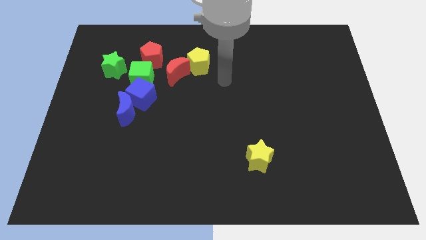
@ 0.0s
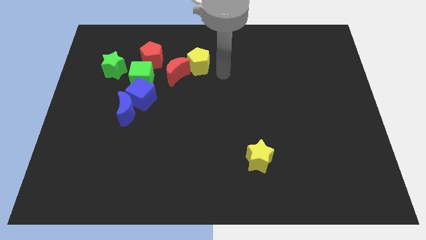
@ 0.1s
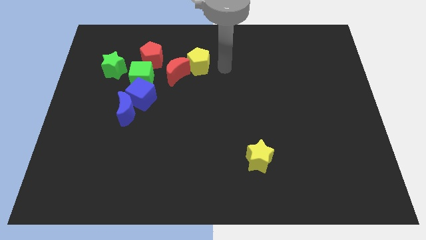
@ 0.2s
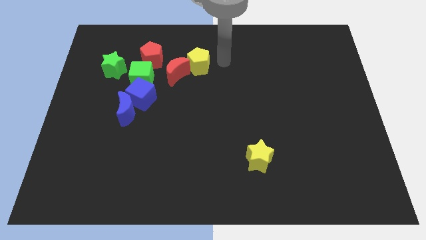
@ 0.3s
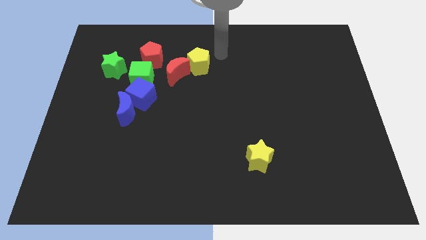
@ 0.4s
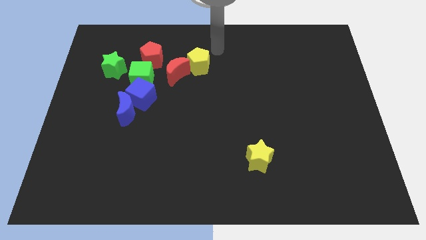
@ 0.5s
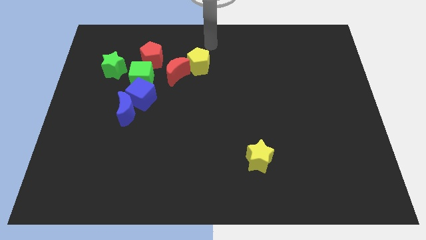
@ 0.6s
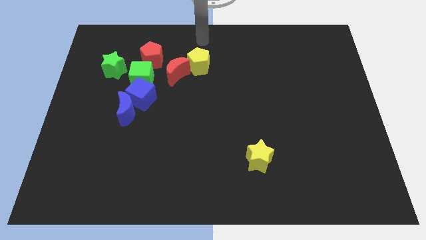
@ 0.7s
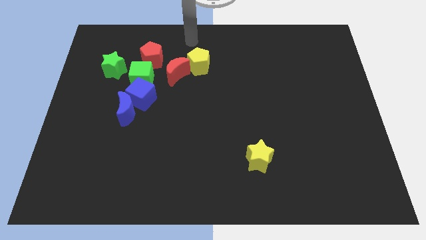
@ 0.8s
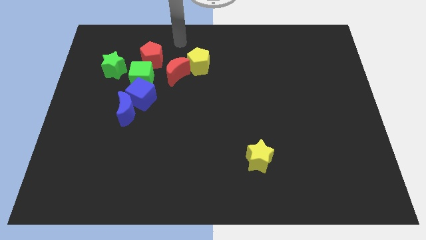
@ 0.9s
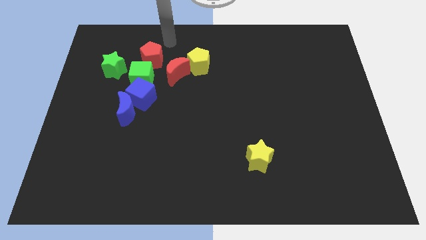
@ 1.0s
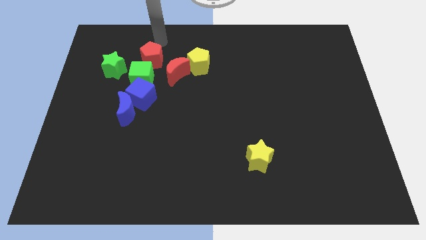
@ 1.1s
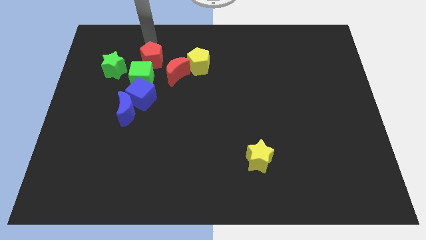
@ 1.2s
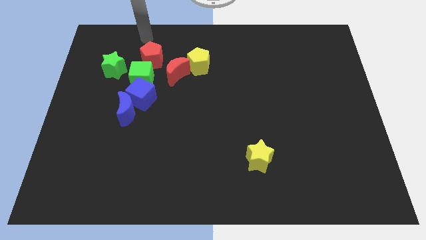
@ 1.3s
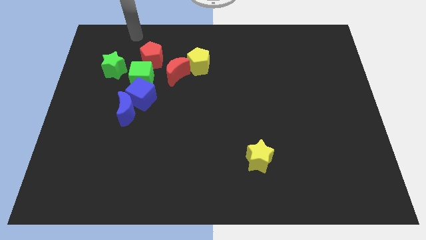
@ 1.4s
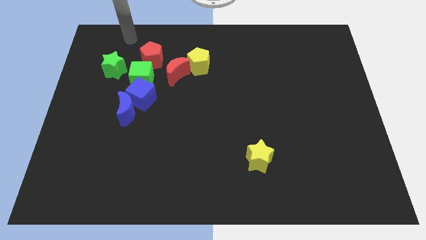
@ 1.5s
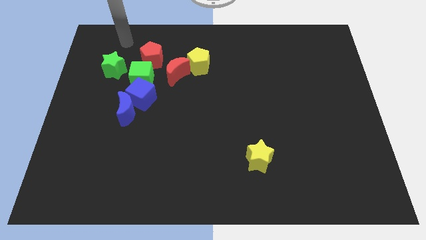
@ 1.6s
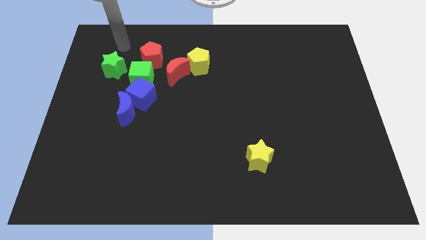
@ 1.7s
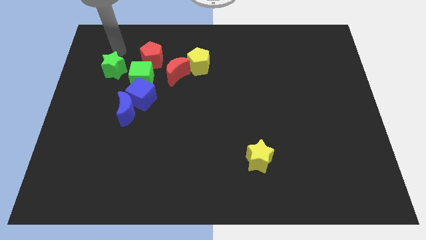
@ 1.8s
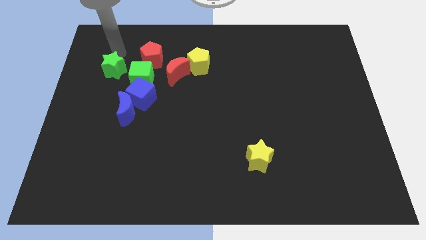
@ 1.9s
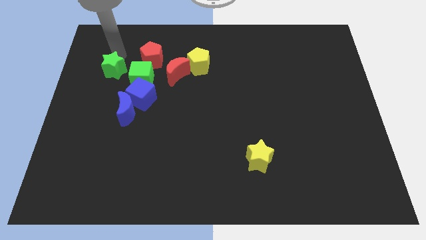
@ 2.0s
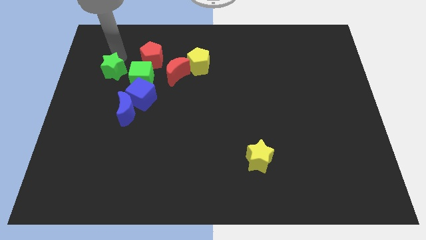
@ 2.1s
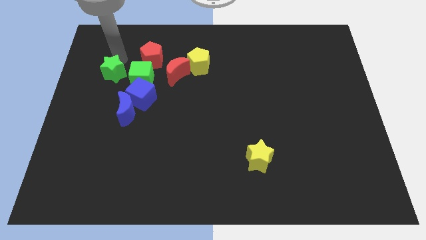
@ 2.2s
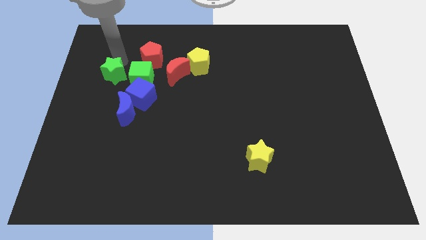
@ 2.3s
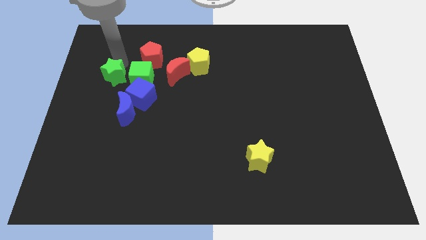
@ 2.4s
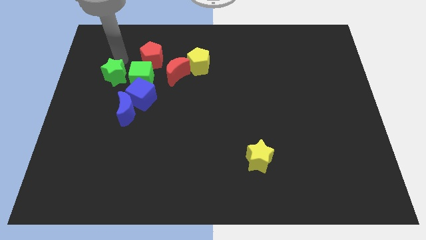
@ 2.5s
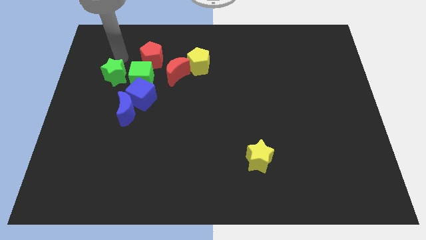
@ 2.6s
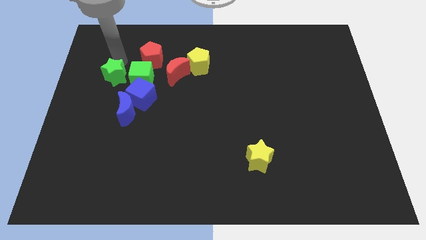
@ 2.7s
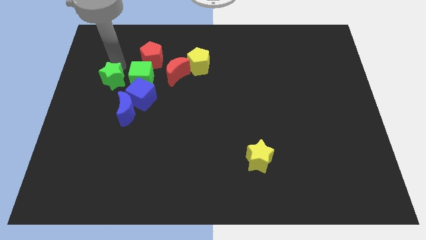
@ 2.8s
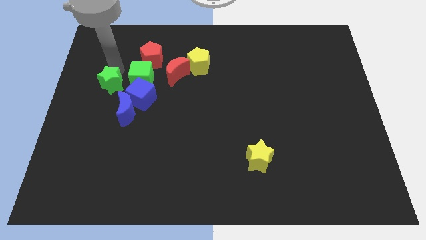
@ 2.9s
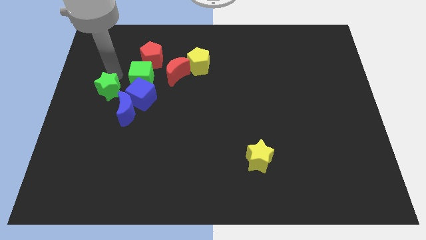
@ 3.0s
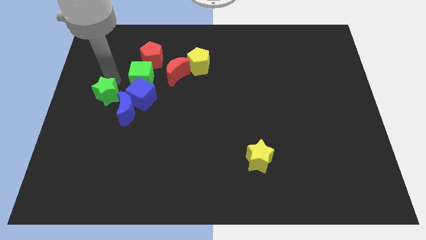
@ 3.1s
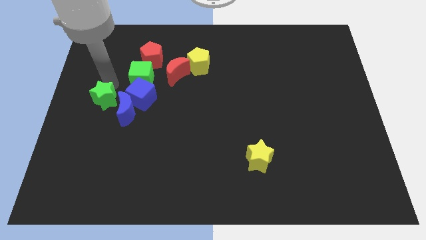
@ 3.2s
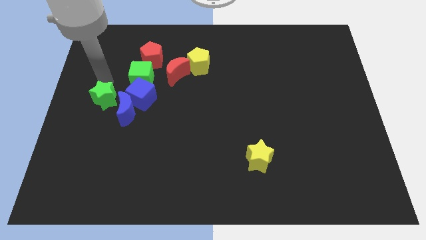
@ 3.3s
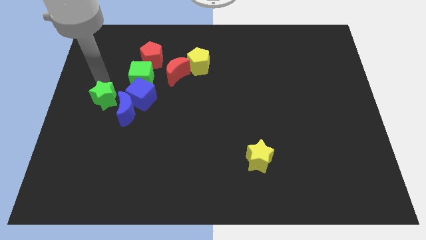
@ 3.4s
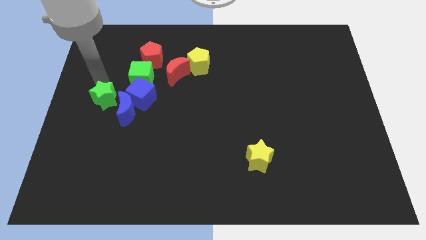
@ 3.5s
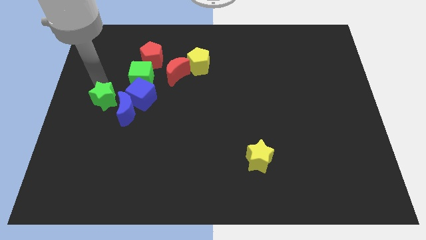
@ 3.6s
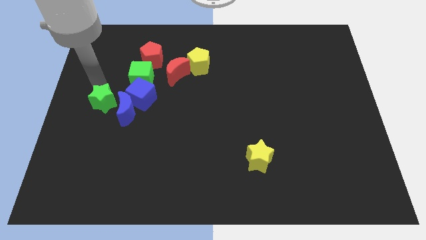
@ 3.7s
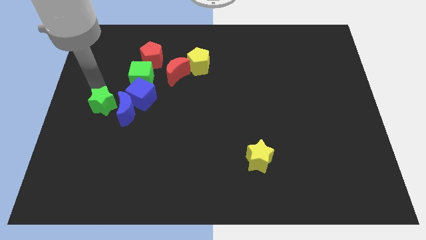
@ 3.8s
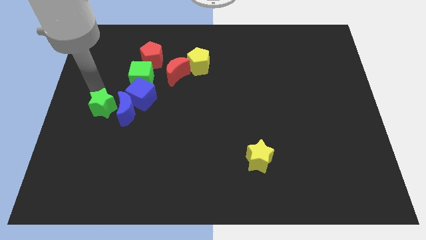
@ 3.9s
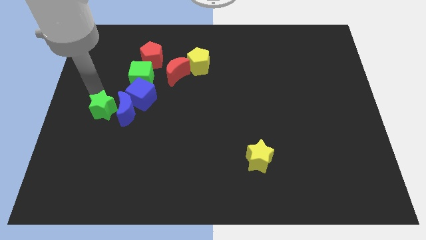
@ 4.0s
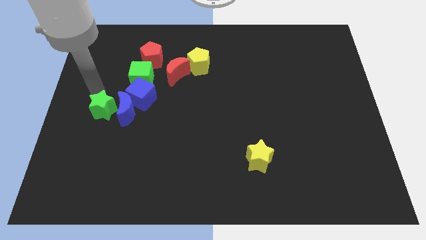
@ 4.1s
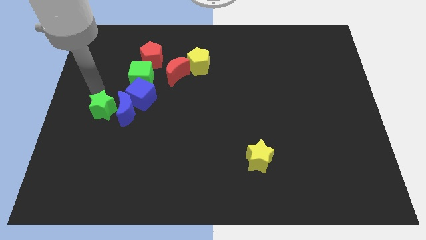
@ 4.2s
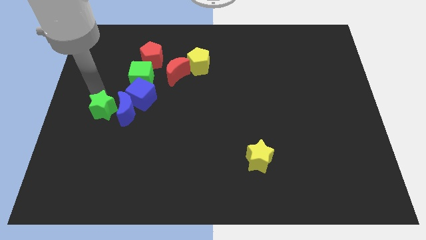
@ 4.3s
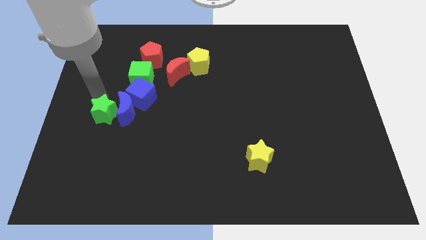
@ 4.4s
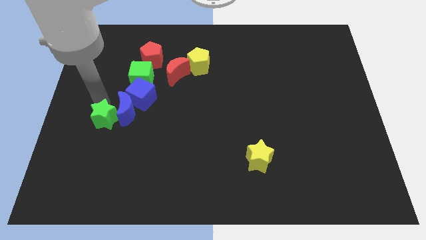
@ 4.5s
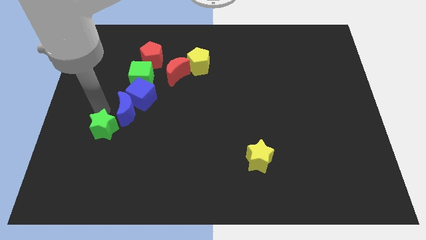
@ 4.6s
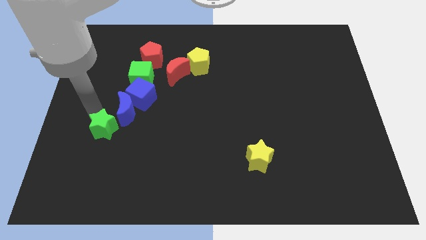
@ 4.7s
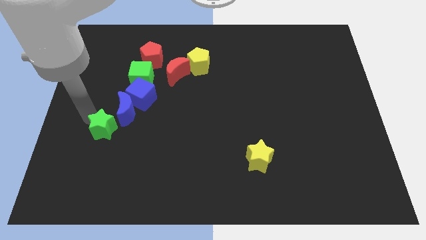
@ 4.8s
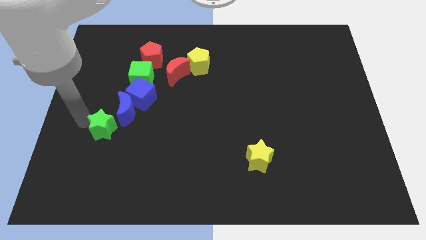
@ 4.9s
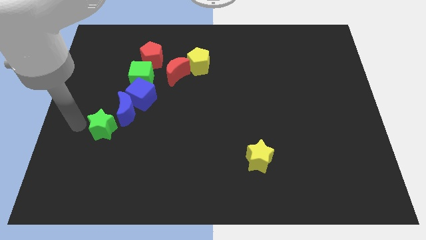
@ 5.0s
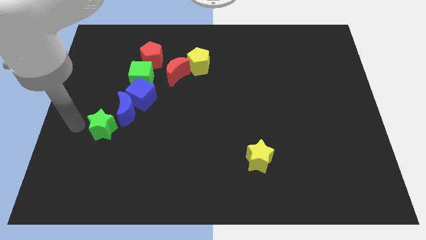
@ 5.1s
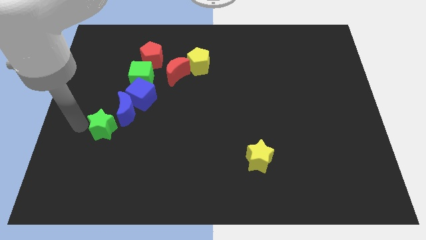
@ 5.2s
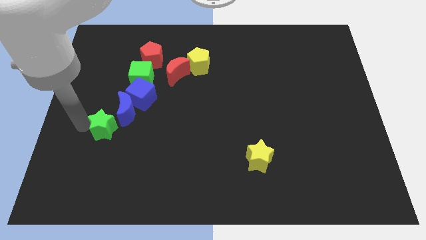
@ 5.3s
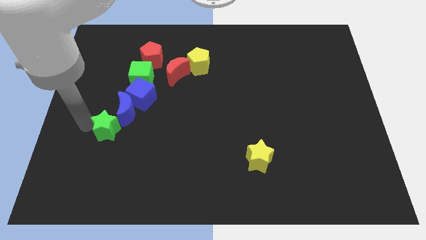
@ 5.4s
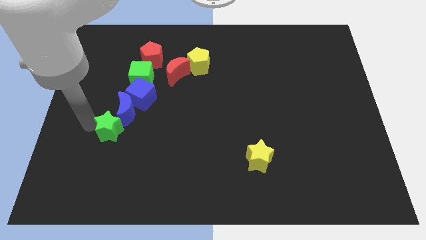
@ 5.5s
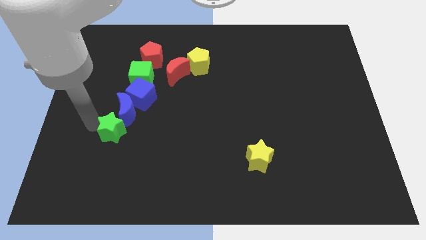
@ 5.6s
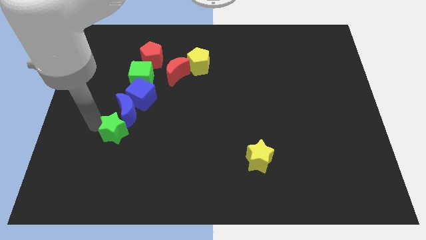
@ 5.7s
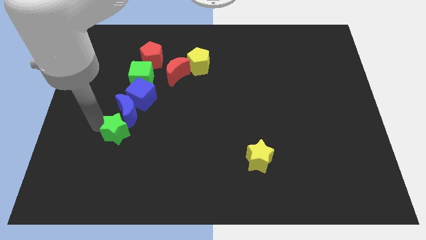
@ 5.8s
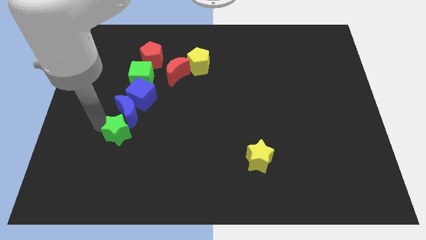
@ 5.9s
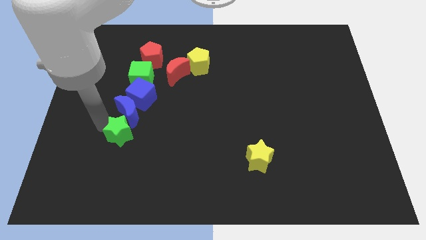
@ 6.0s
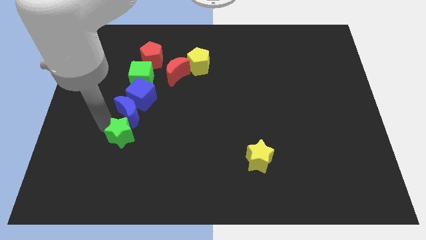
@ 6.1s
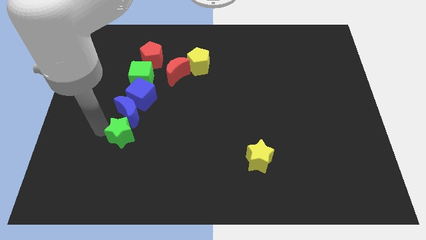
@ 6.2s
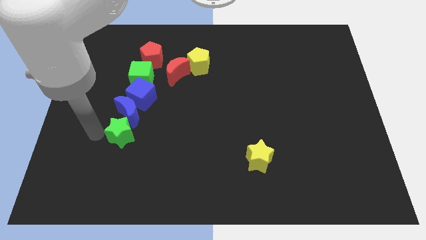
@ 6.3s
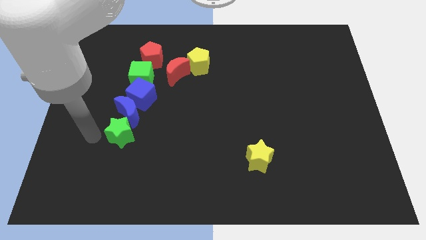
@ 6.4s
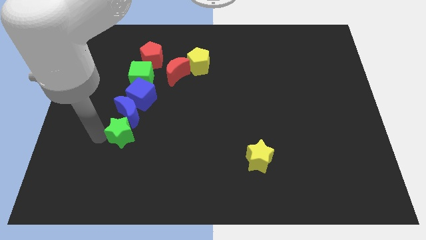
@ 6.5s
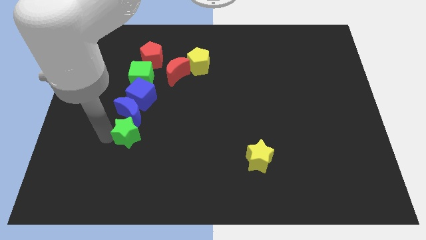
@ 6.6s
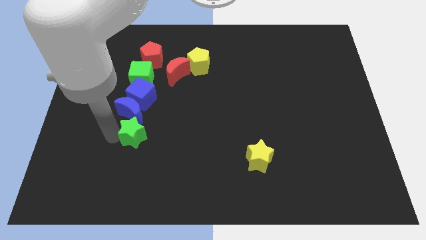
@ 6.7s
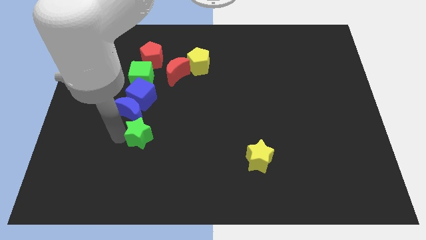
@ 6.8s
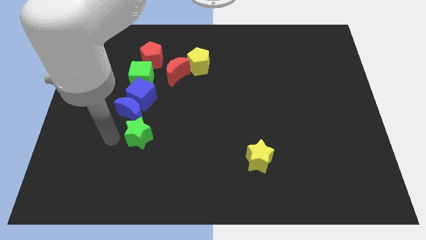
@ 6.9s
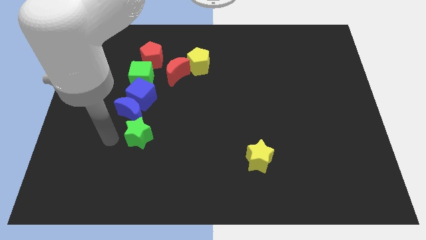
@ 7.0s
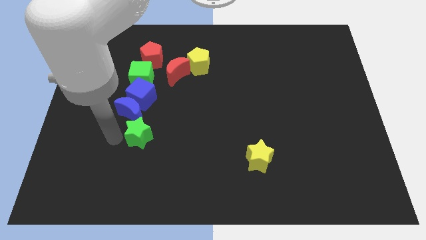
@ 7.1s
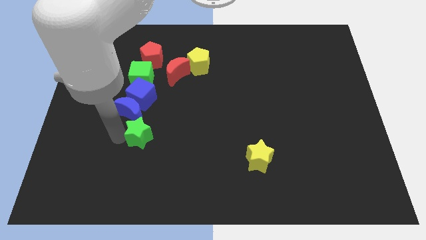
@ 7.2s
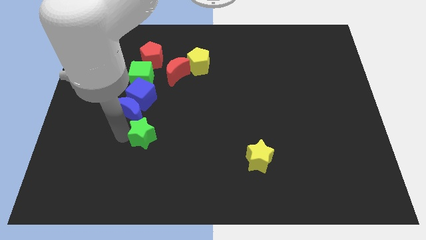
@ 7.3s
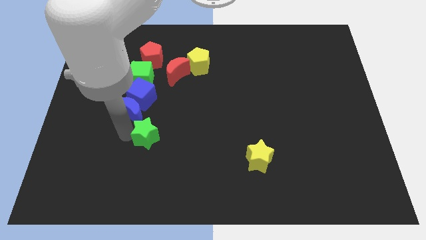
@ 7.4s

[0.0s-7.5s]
slide the green star downwards and to the right

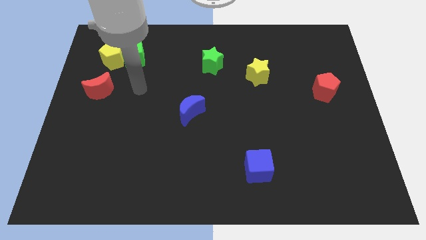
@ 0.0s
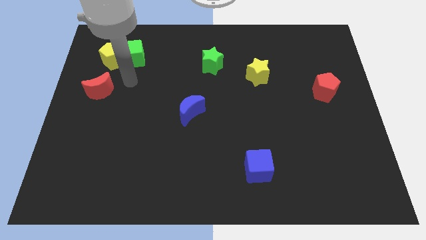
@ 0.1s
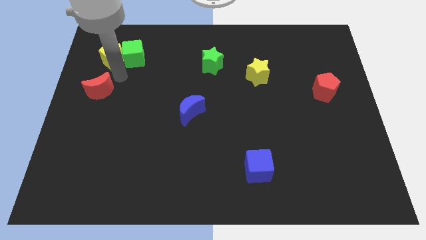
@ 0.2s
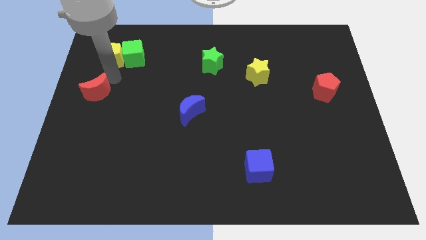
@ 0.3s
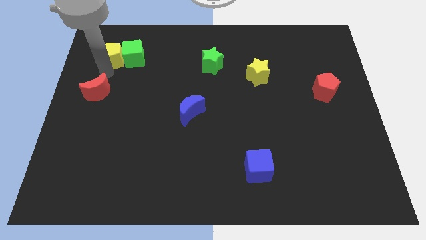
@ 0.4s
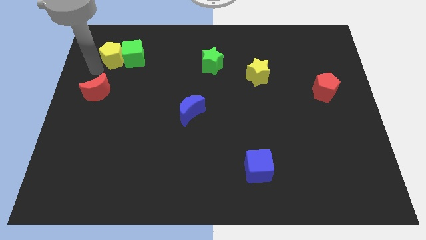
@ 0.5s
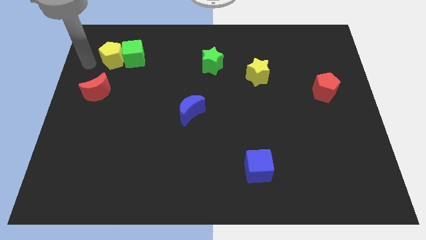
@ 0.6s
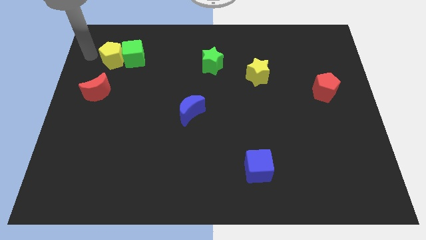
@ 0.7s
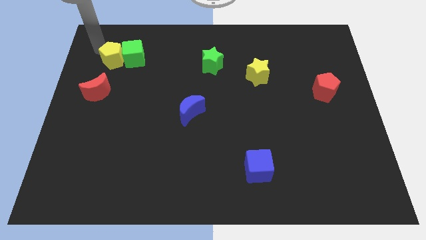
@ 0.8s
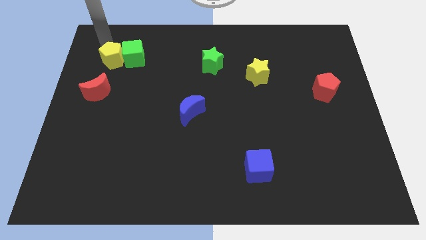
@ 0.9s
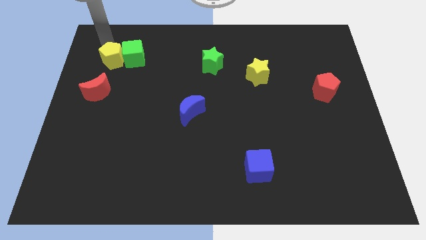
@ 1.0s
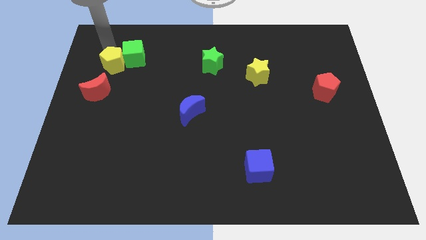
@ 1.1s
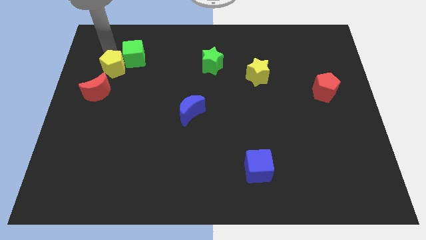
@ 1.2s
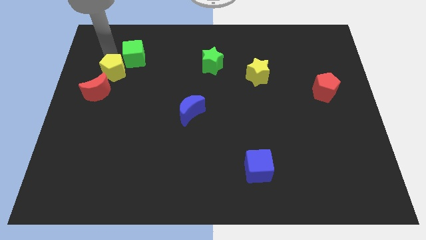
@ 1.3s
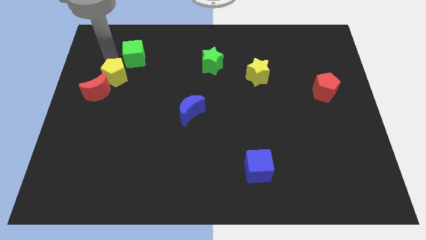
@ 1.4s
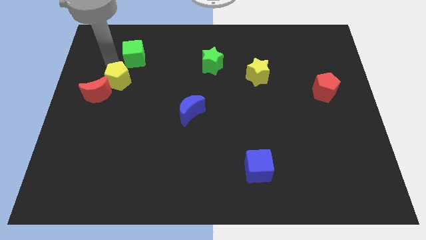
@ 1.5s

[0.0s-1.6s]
slide the yellow pentagon somewhat down
